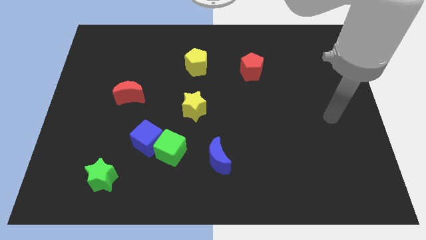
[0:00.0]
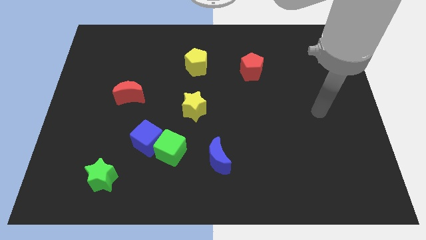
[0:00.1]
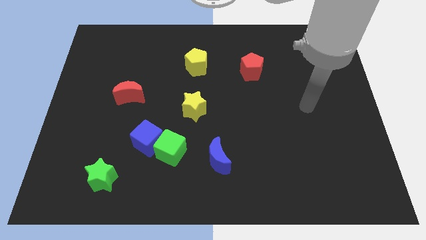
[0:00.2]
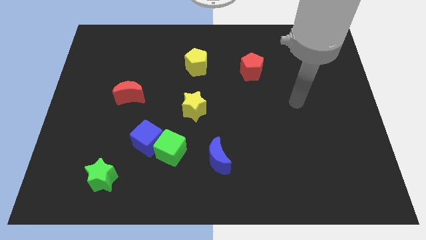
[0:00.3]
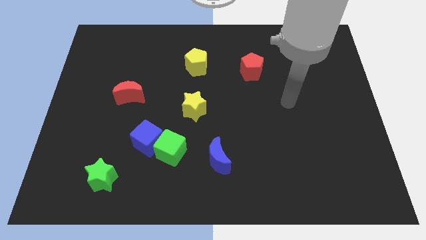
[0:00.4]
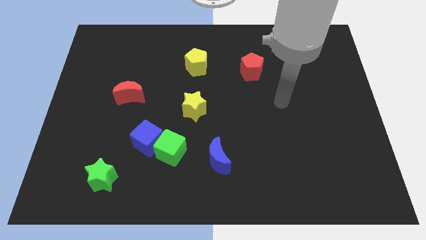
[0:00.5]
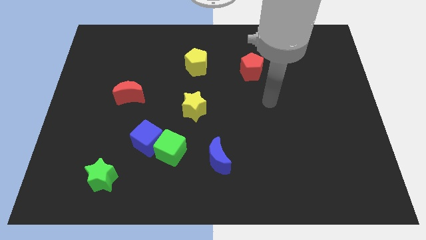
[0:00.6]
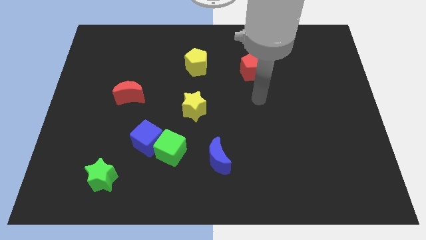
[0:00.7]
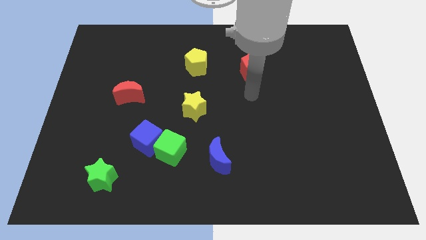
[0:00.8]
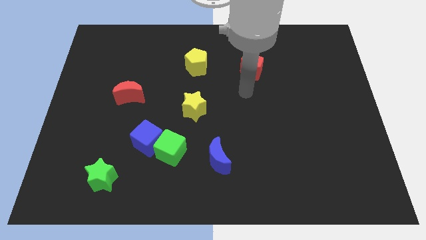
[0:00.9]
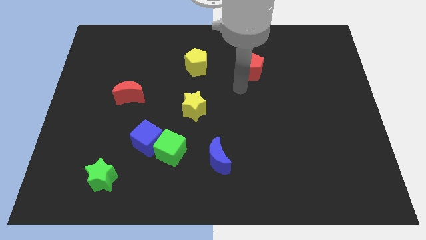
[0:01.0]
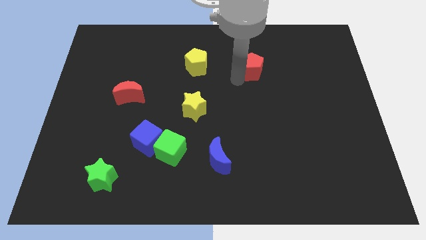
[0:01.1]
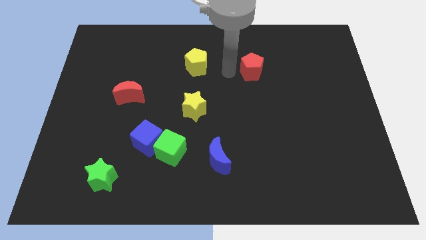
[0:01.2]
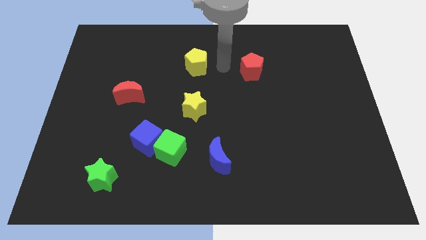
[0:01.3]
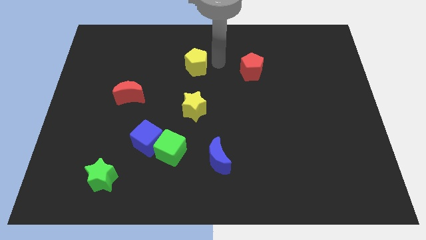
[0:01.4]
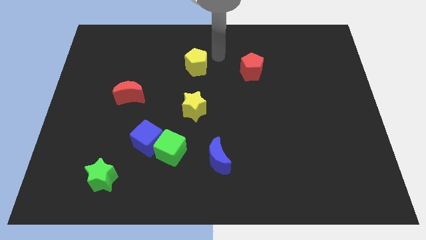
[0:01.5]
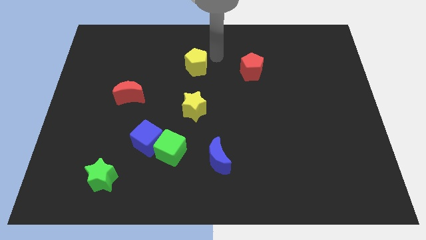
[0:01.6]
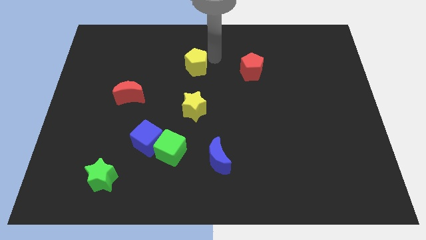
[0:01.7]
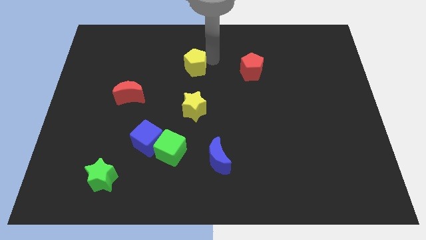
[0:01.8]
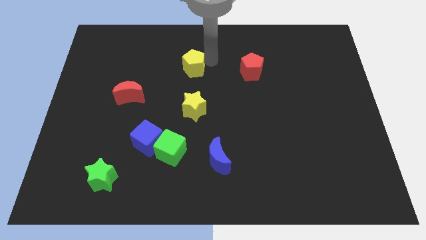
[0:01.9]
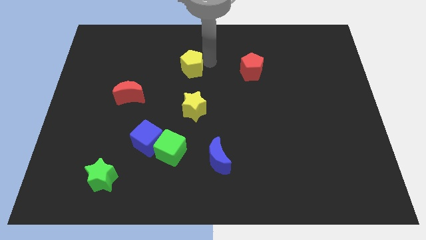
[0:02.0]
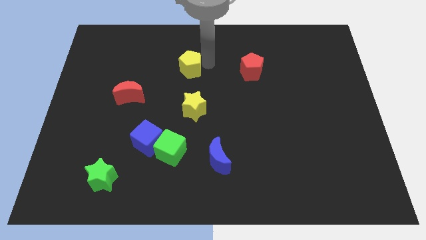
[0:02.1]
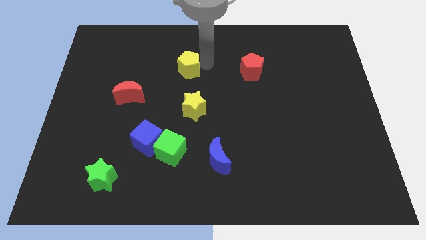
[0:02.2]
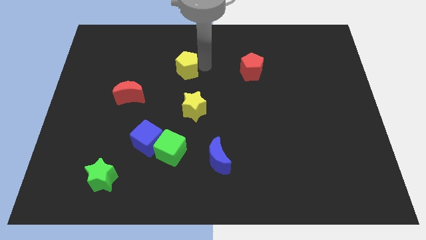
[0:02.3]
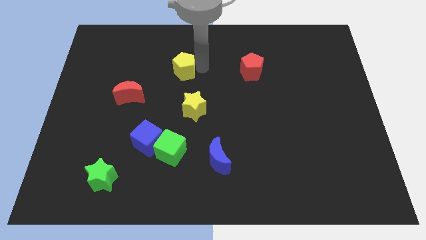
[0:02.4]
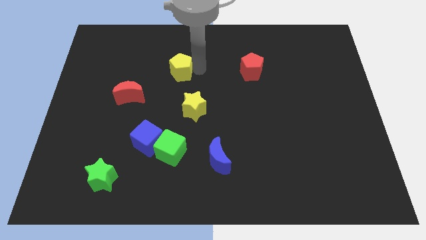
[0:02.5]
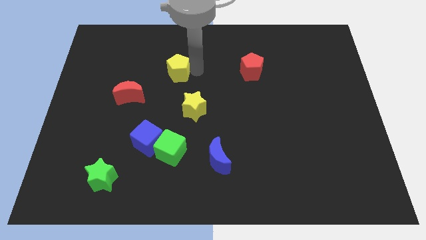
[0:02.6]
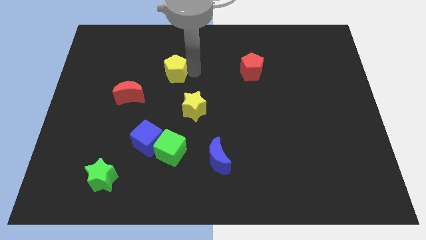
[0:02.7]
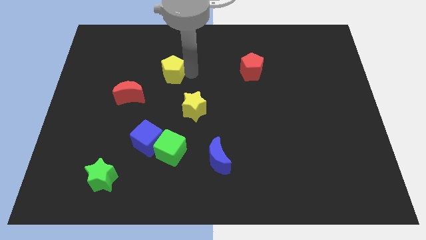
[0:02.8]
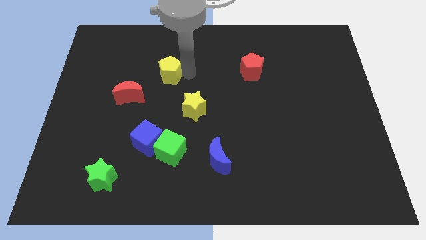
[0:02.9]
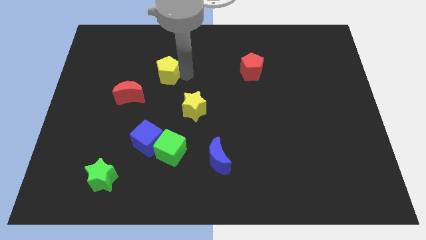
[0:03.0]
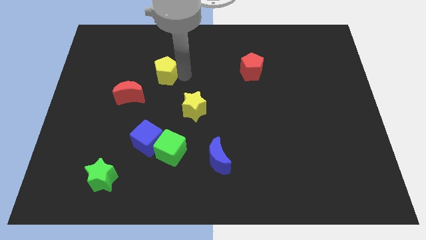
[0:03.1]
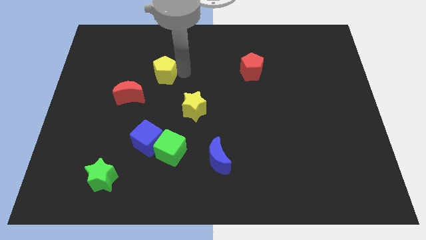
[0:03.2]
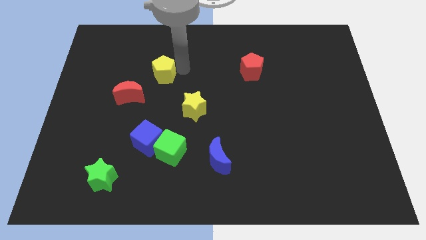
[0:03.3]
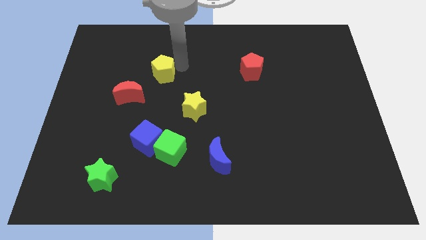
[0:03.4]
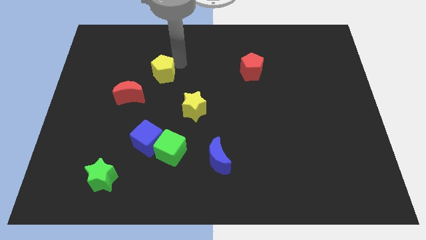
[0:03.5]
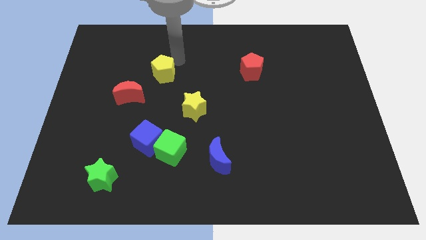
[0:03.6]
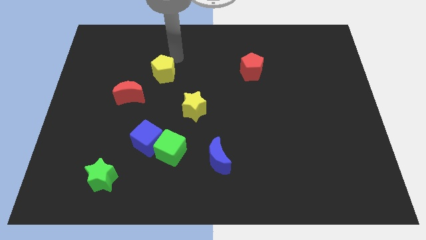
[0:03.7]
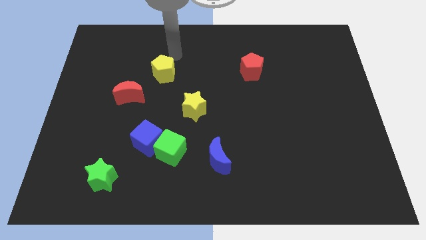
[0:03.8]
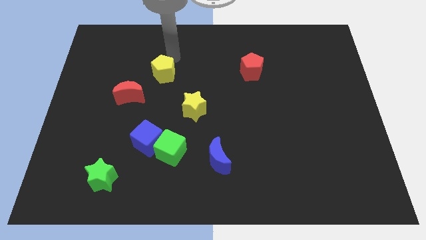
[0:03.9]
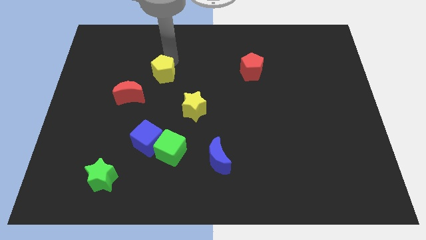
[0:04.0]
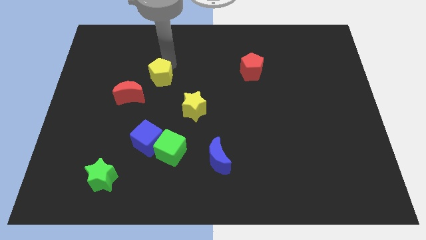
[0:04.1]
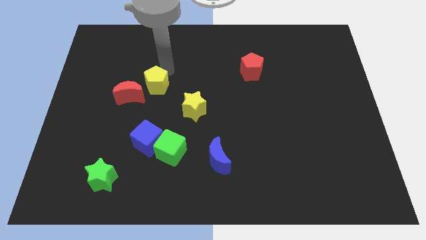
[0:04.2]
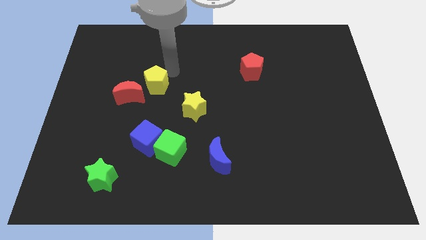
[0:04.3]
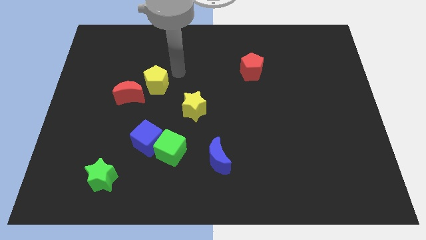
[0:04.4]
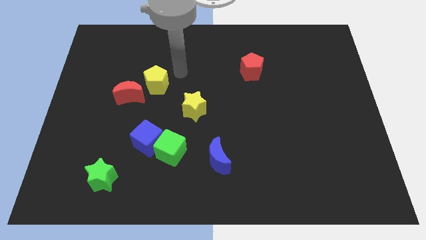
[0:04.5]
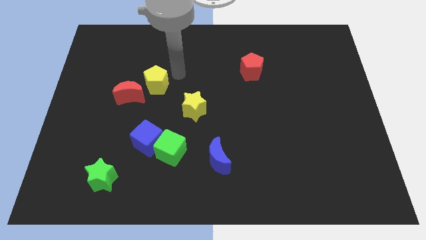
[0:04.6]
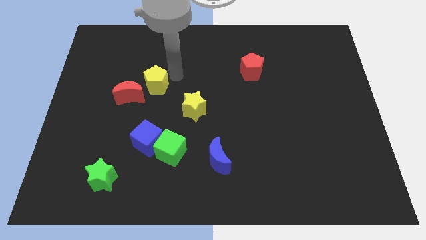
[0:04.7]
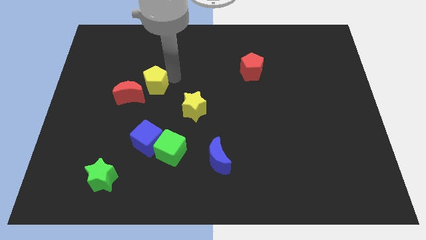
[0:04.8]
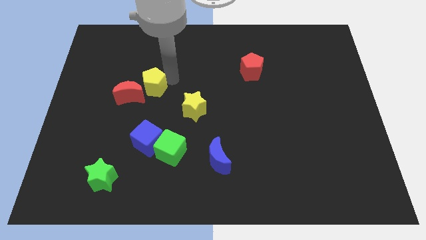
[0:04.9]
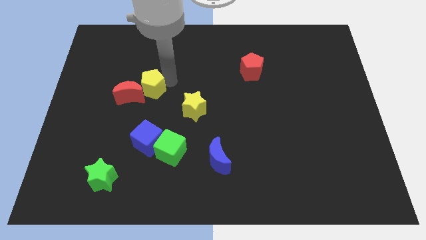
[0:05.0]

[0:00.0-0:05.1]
move the yellow pentagon close to the red moon

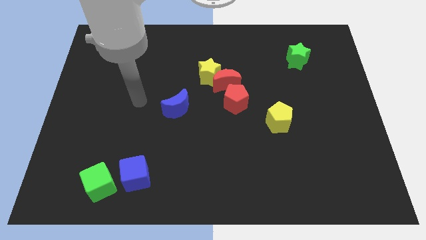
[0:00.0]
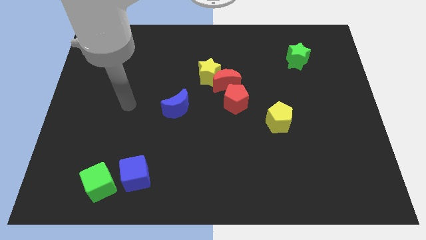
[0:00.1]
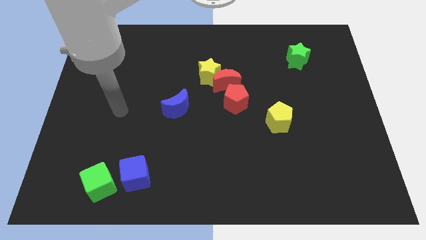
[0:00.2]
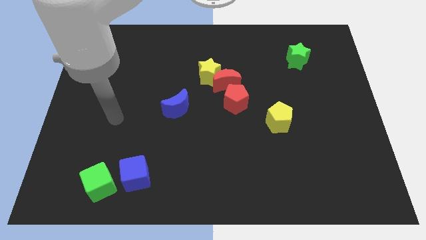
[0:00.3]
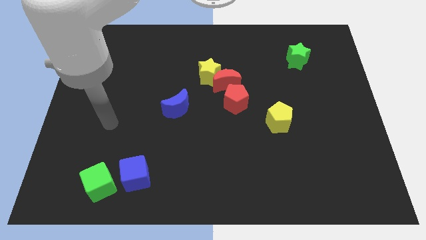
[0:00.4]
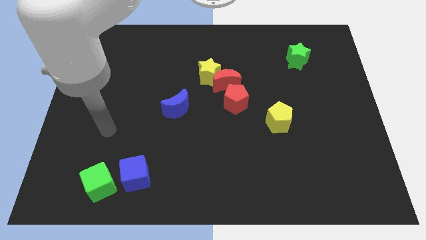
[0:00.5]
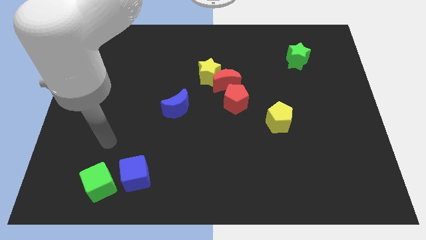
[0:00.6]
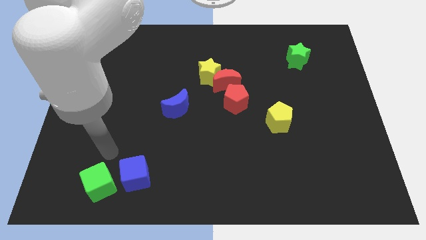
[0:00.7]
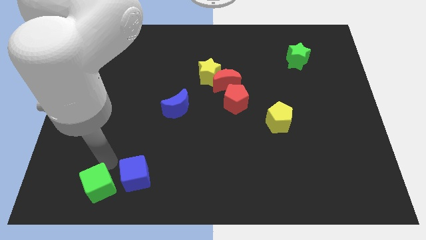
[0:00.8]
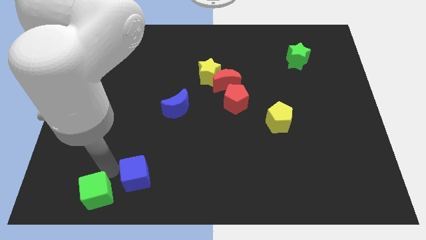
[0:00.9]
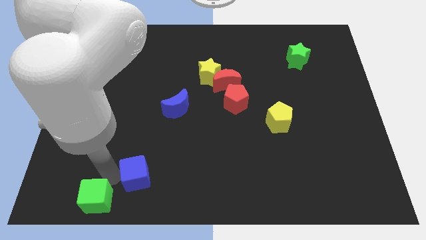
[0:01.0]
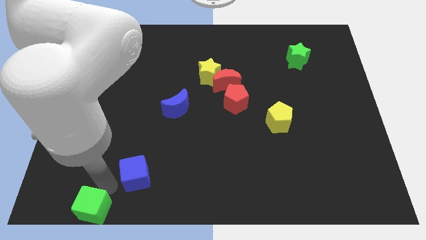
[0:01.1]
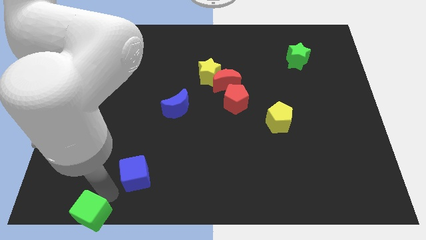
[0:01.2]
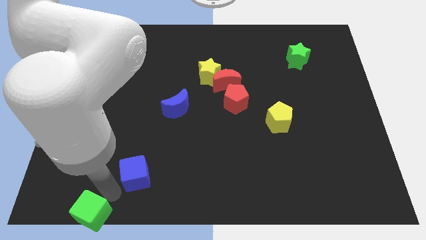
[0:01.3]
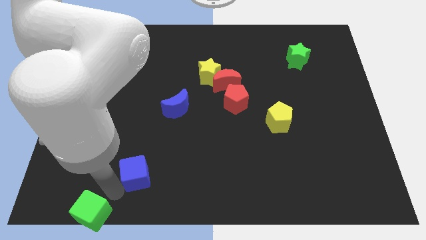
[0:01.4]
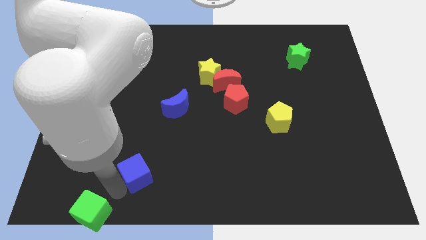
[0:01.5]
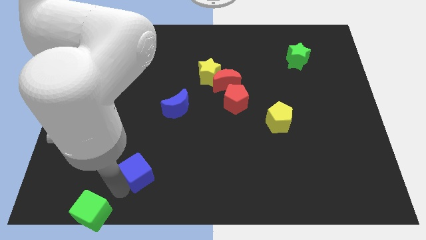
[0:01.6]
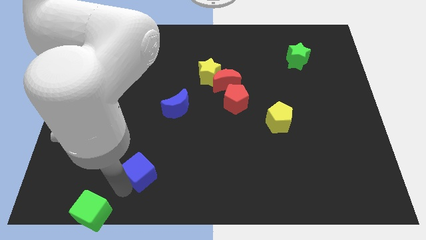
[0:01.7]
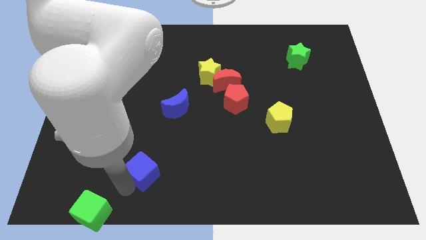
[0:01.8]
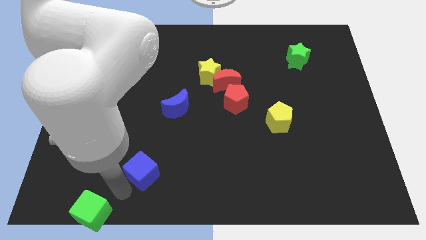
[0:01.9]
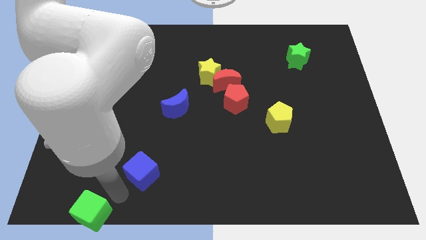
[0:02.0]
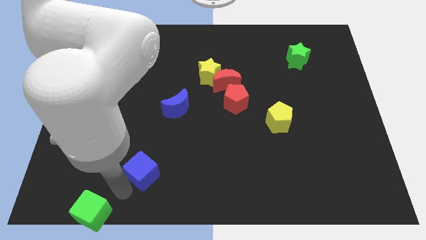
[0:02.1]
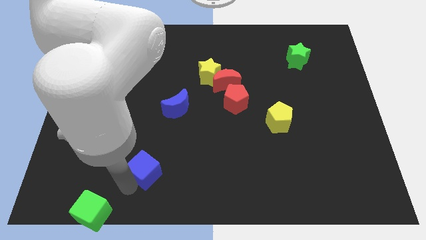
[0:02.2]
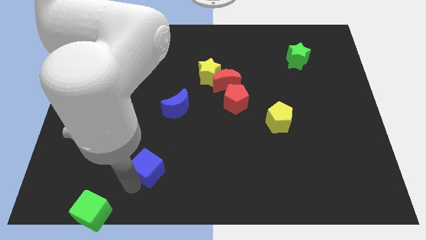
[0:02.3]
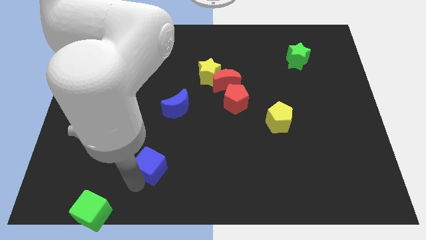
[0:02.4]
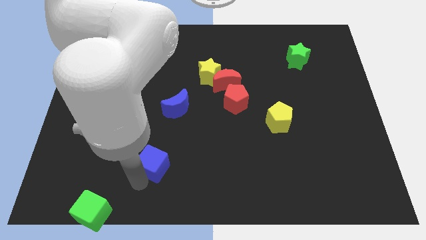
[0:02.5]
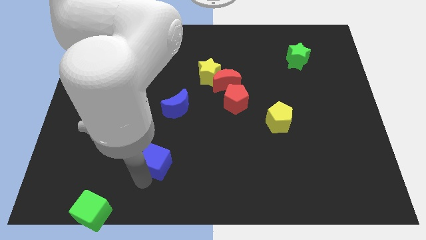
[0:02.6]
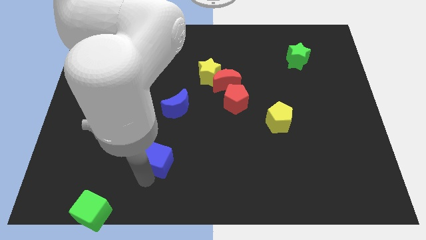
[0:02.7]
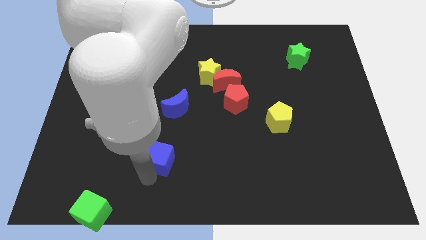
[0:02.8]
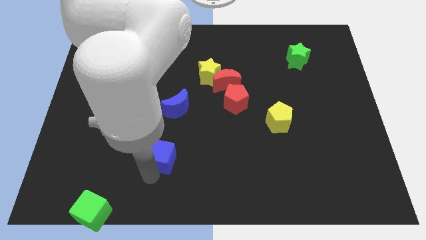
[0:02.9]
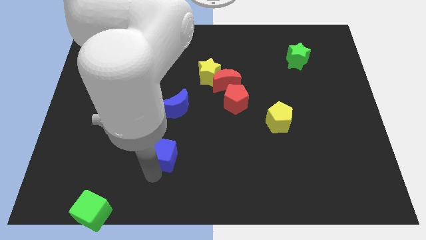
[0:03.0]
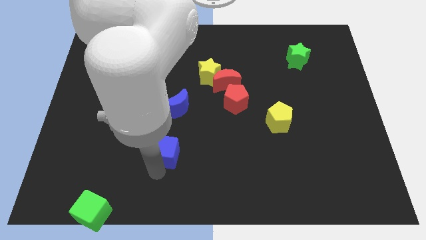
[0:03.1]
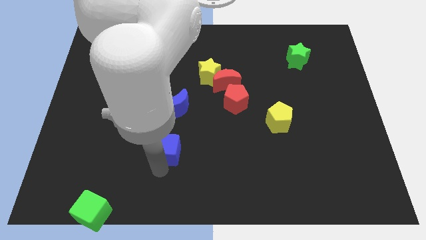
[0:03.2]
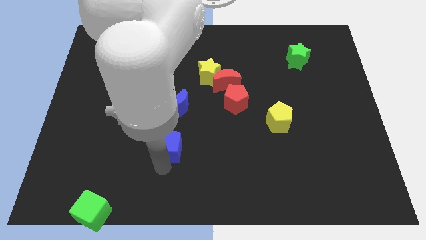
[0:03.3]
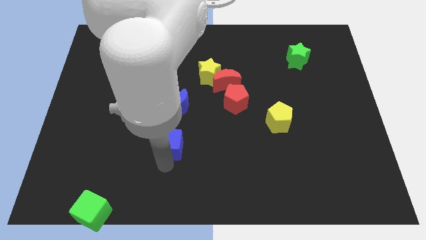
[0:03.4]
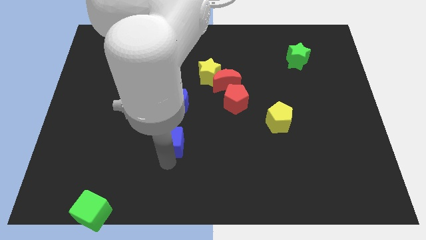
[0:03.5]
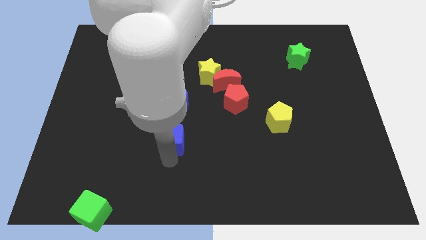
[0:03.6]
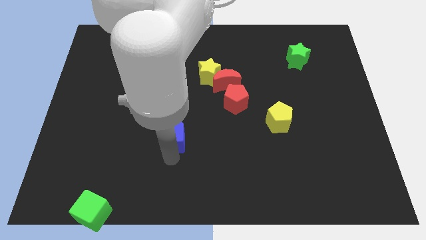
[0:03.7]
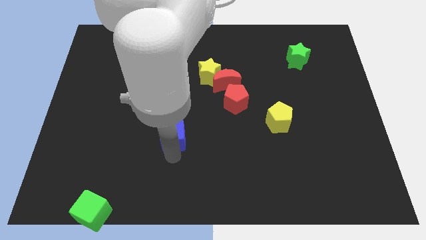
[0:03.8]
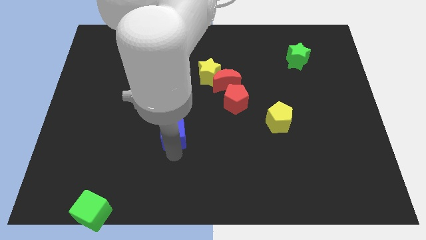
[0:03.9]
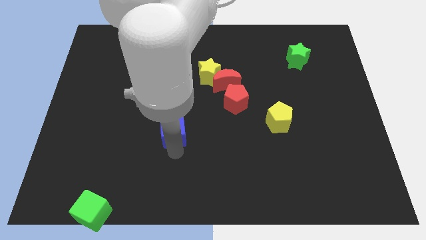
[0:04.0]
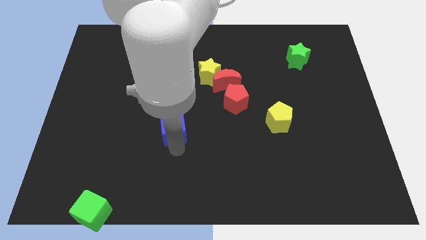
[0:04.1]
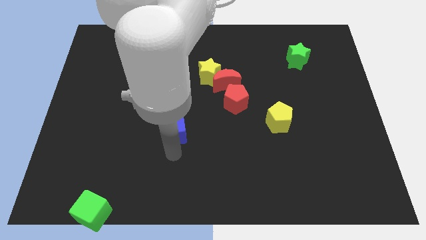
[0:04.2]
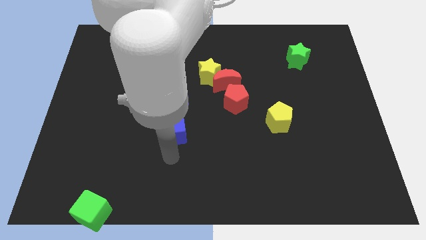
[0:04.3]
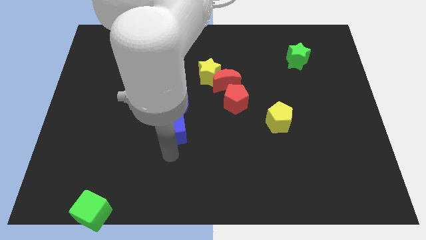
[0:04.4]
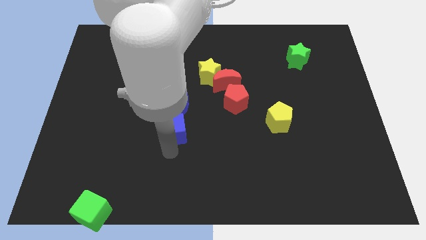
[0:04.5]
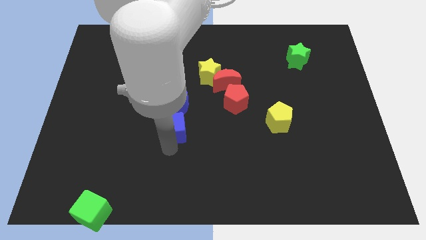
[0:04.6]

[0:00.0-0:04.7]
push the blue cube next to the blue moon
